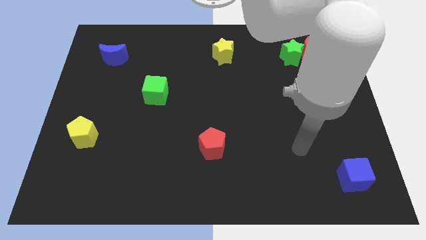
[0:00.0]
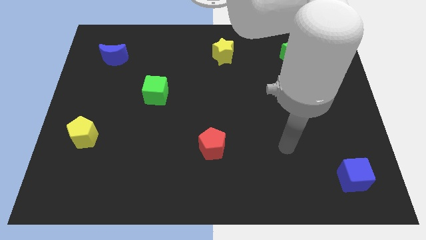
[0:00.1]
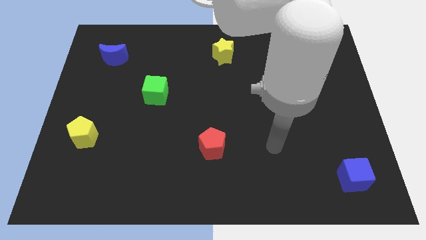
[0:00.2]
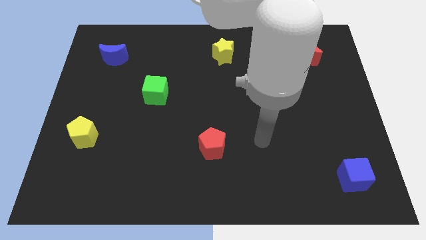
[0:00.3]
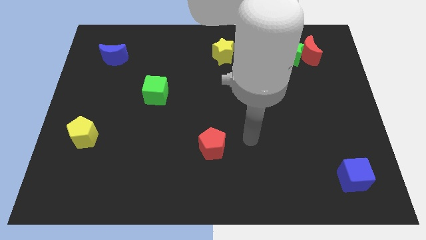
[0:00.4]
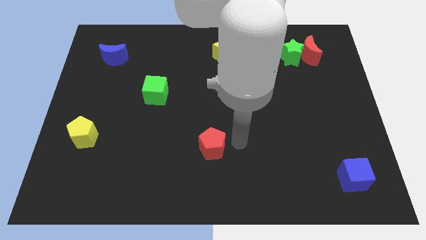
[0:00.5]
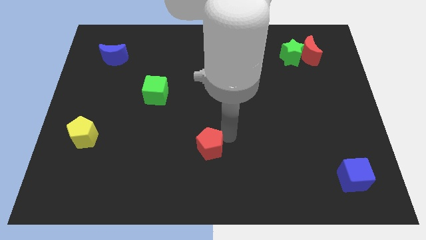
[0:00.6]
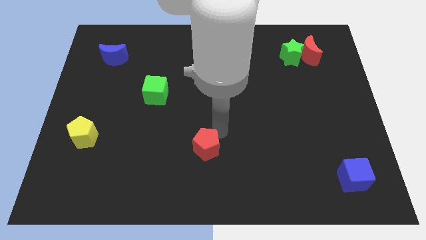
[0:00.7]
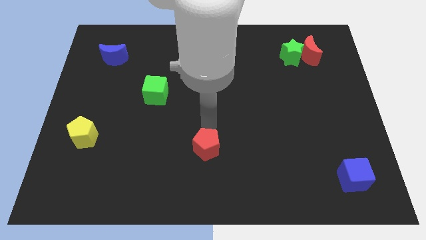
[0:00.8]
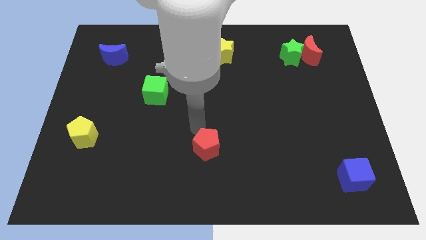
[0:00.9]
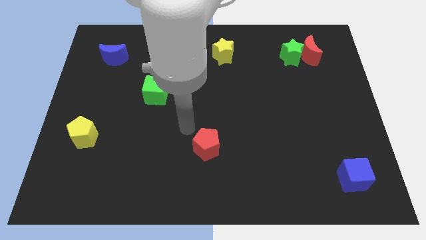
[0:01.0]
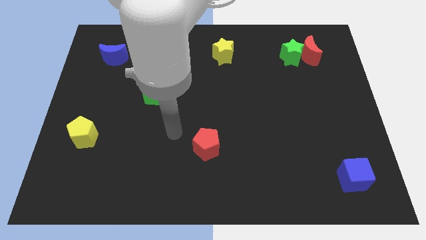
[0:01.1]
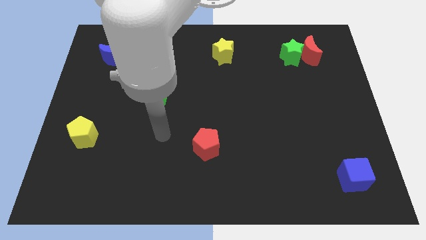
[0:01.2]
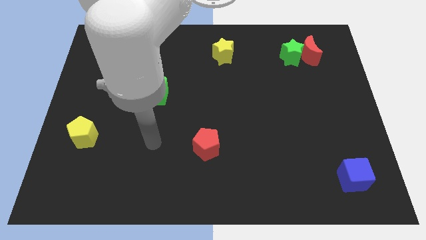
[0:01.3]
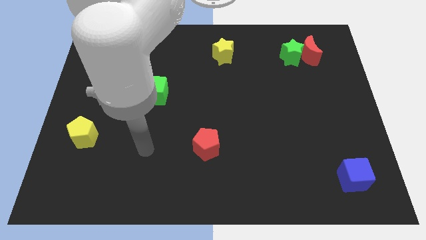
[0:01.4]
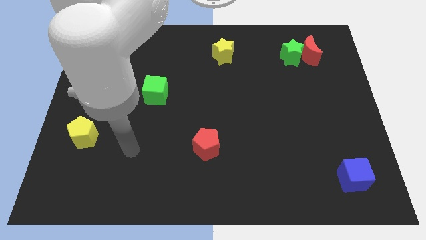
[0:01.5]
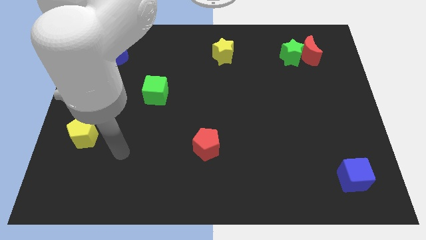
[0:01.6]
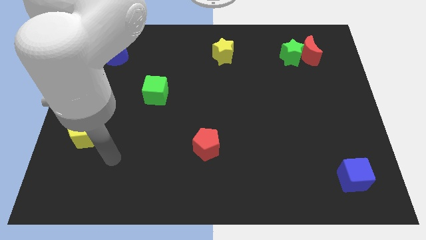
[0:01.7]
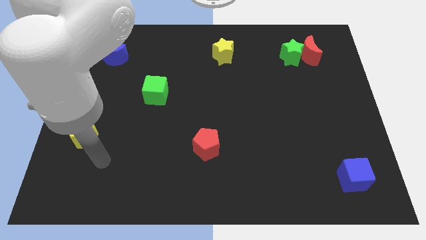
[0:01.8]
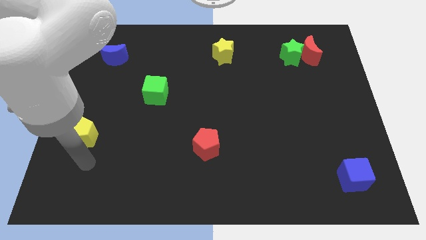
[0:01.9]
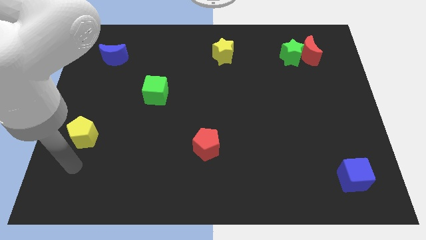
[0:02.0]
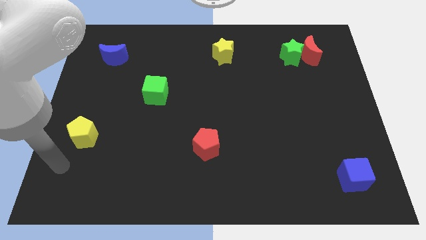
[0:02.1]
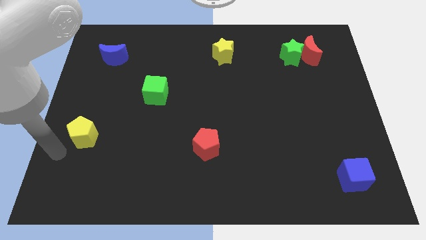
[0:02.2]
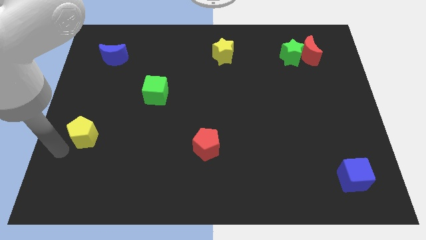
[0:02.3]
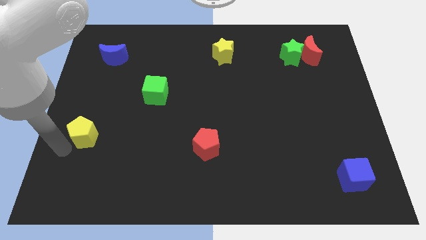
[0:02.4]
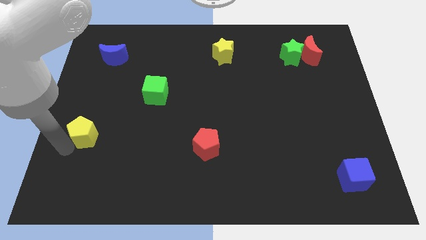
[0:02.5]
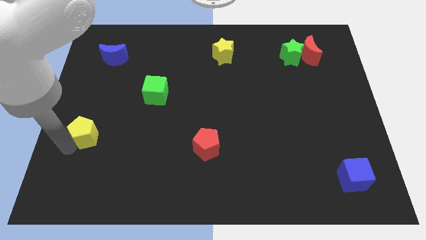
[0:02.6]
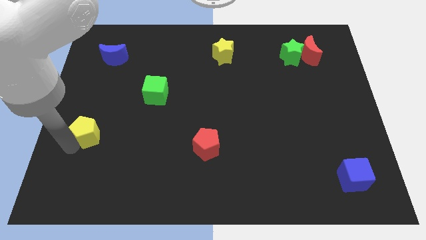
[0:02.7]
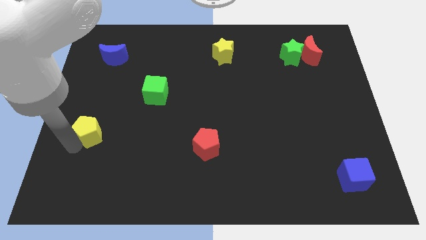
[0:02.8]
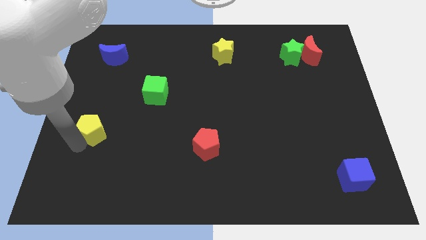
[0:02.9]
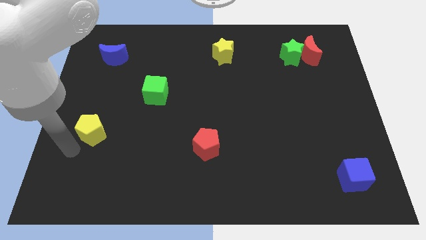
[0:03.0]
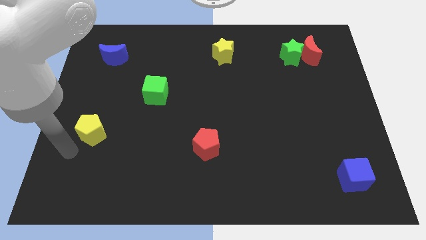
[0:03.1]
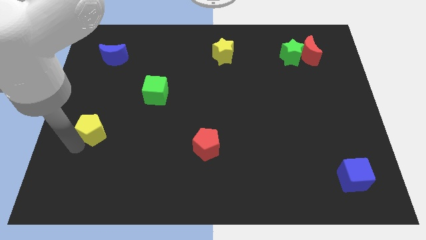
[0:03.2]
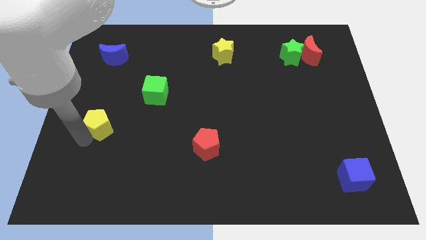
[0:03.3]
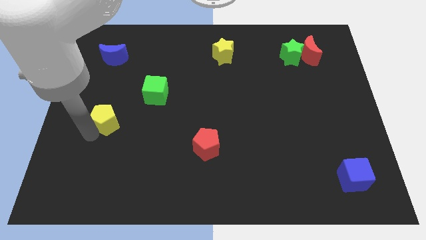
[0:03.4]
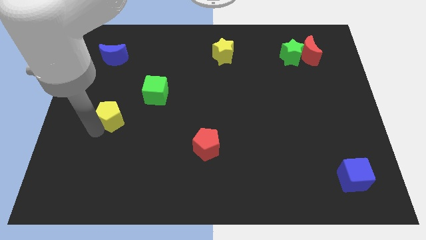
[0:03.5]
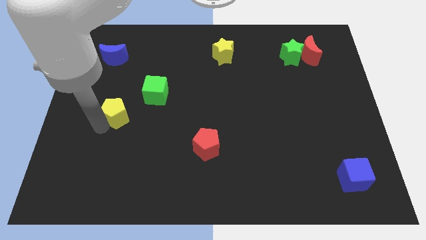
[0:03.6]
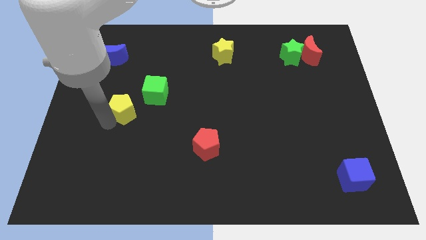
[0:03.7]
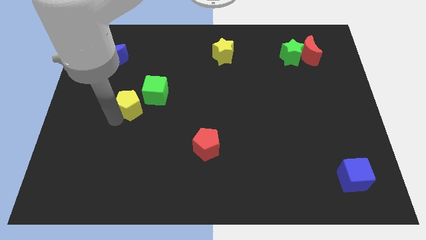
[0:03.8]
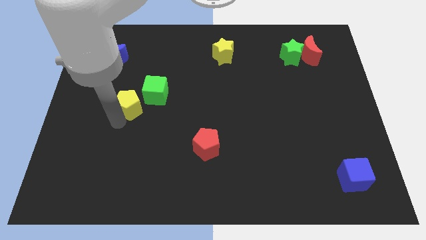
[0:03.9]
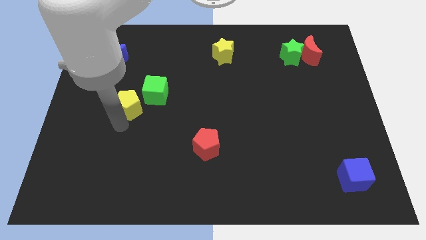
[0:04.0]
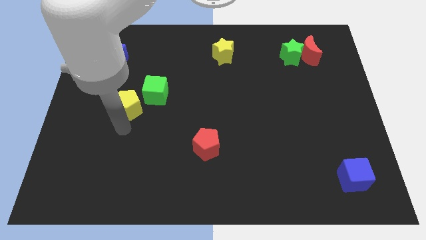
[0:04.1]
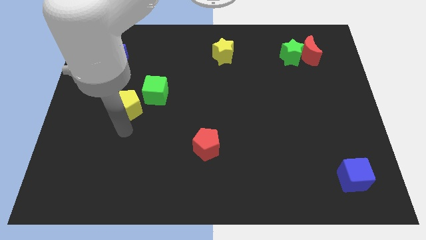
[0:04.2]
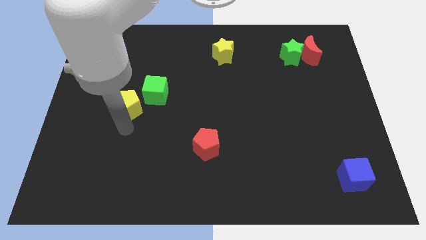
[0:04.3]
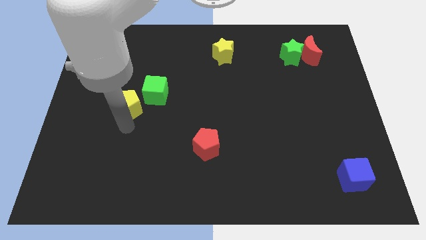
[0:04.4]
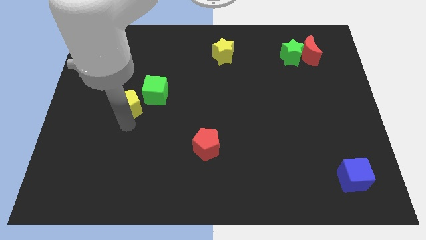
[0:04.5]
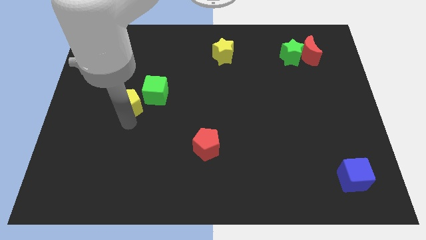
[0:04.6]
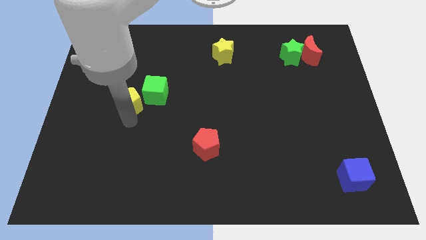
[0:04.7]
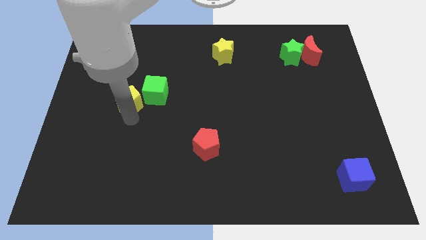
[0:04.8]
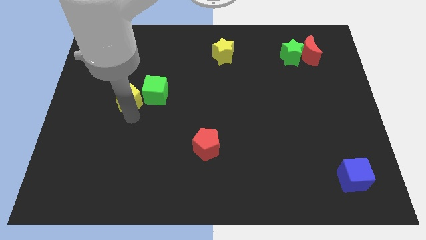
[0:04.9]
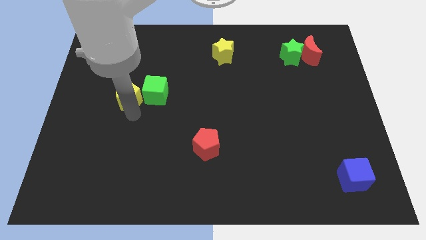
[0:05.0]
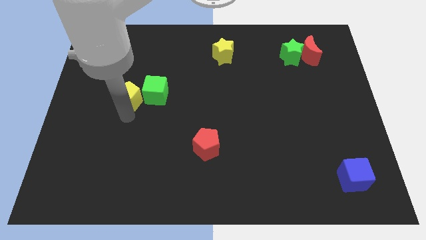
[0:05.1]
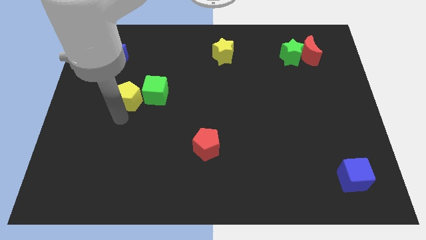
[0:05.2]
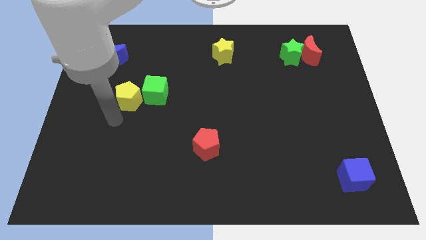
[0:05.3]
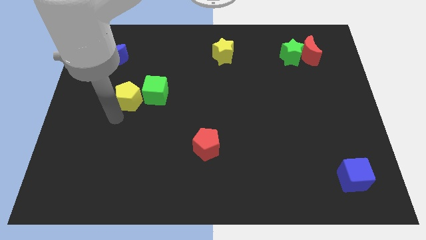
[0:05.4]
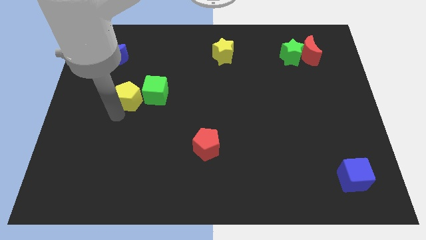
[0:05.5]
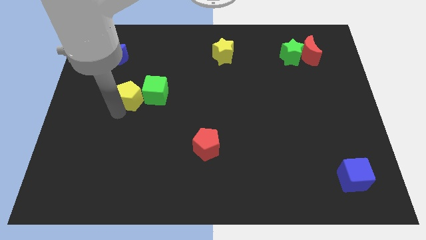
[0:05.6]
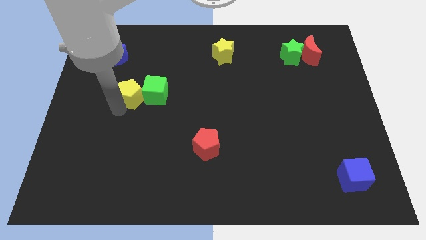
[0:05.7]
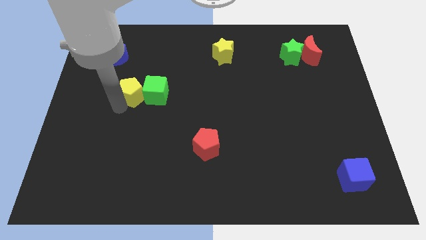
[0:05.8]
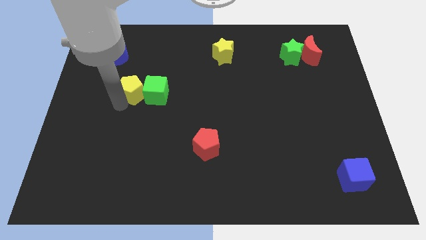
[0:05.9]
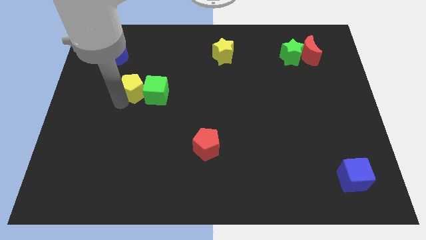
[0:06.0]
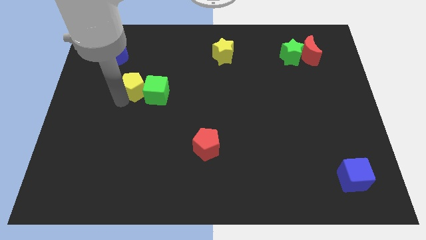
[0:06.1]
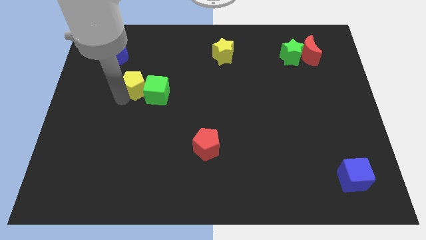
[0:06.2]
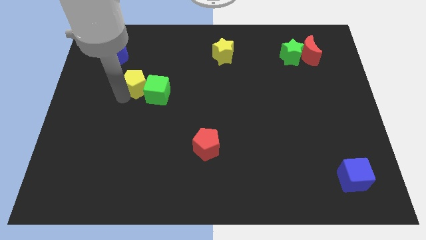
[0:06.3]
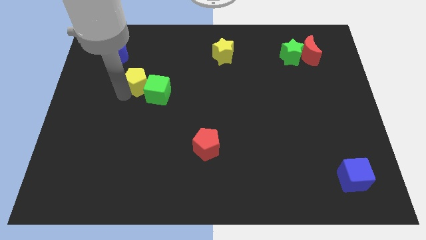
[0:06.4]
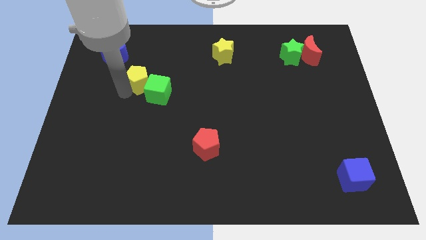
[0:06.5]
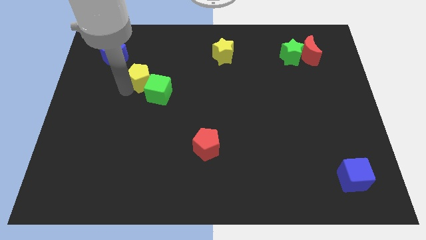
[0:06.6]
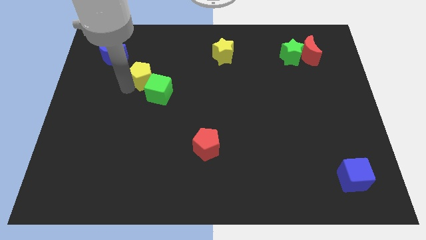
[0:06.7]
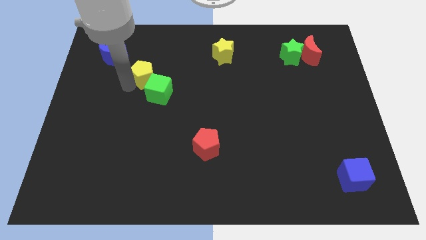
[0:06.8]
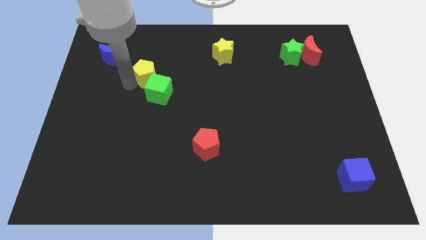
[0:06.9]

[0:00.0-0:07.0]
slide the yellow pentagon upwards and to the right diagonally

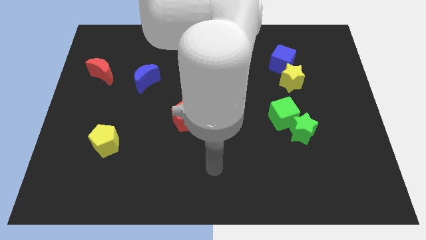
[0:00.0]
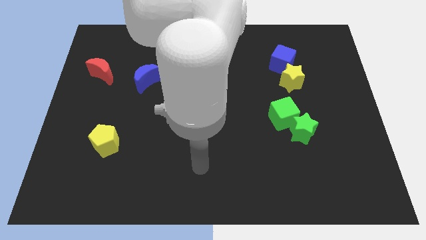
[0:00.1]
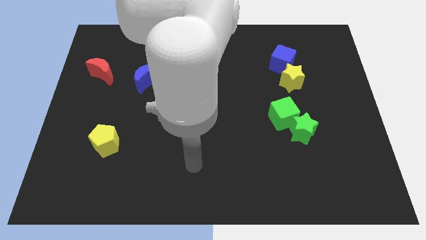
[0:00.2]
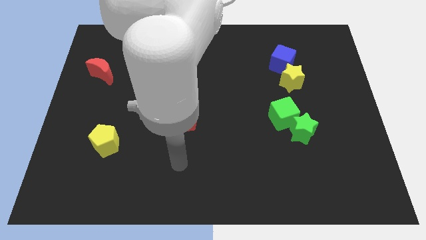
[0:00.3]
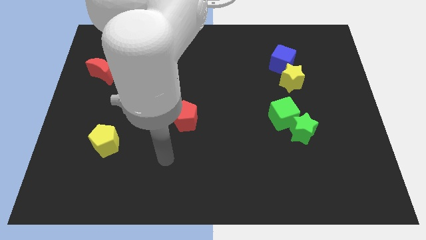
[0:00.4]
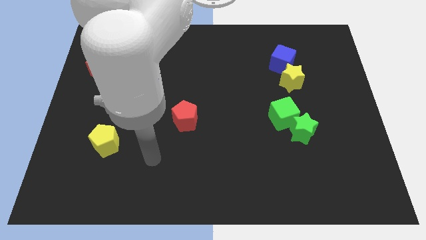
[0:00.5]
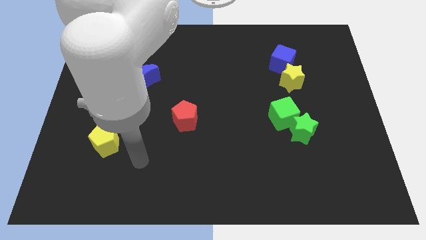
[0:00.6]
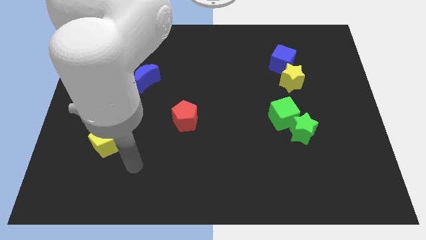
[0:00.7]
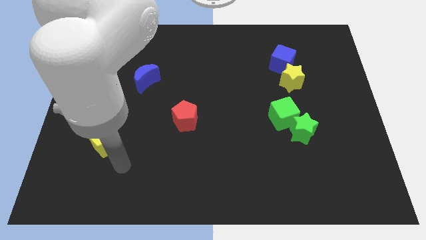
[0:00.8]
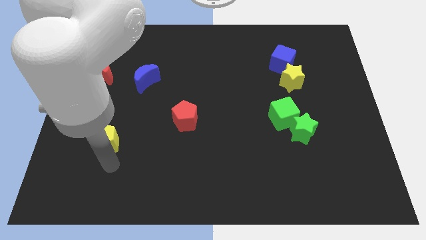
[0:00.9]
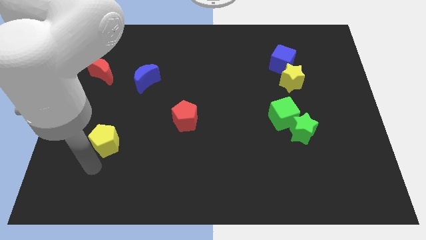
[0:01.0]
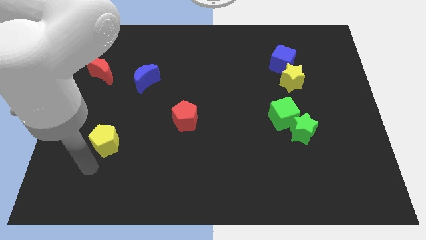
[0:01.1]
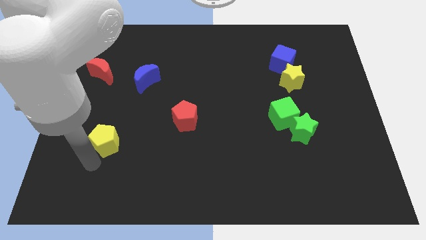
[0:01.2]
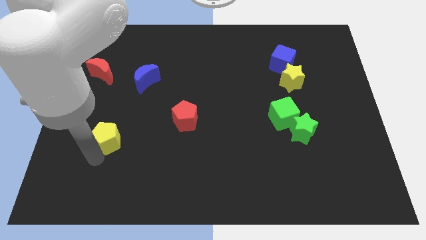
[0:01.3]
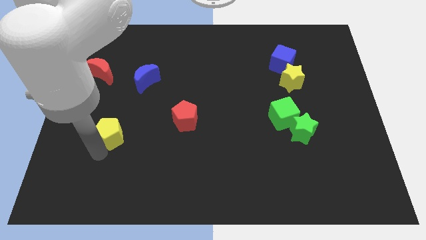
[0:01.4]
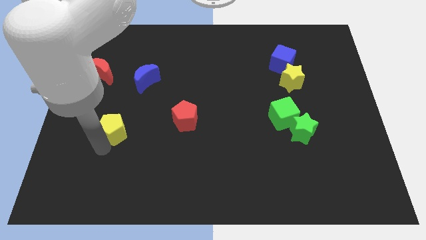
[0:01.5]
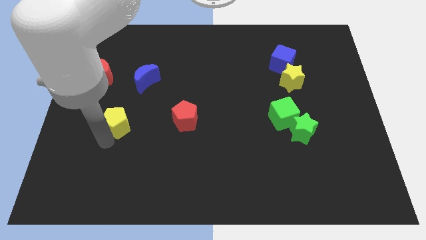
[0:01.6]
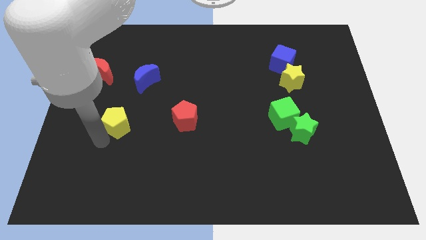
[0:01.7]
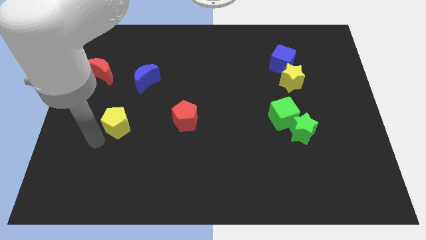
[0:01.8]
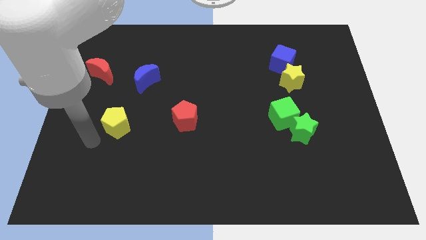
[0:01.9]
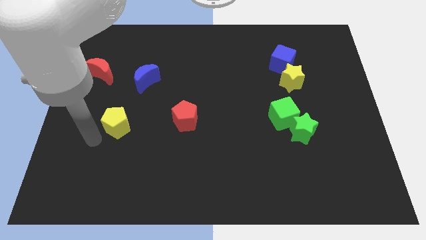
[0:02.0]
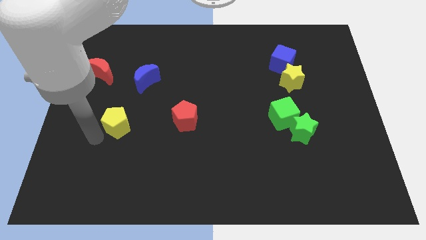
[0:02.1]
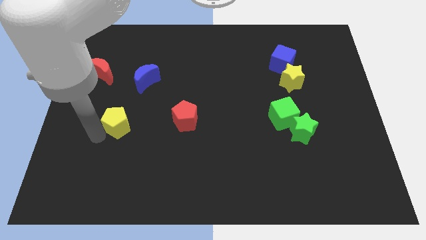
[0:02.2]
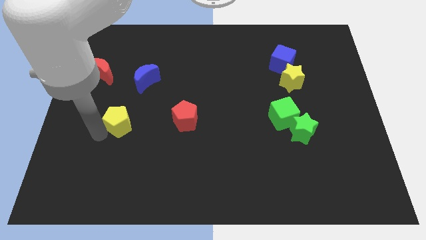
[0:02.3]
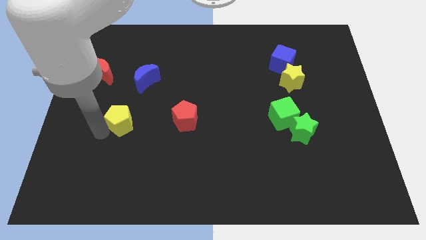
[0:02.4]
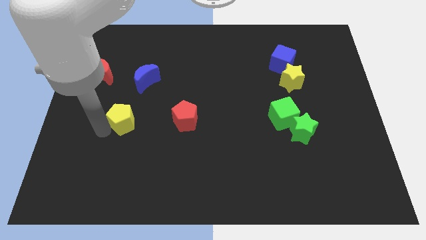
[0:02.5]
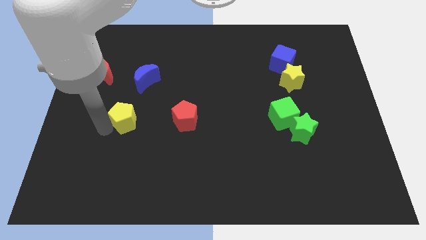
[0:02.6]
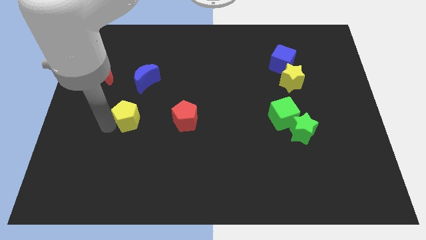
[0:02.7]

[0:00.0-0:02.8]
slightly push the yellow pentagon up and then right
